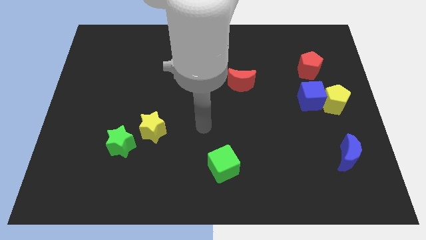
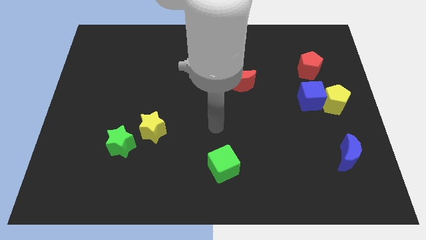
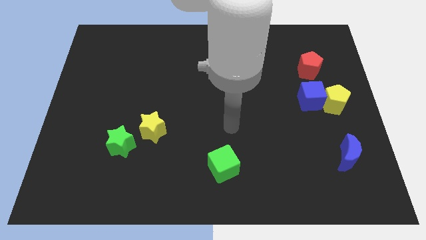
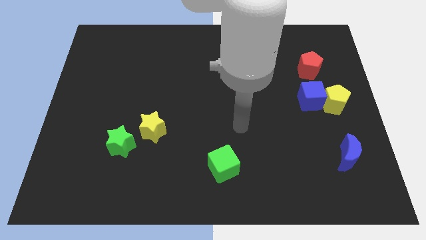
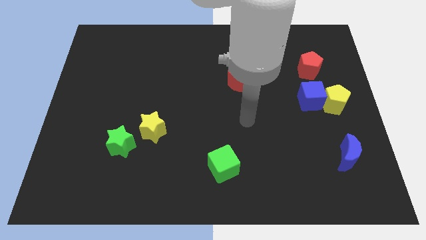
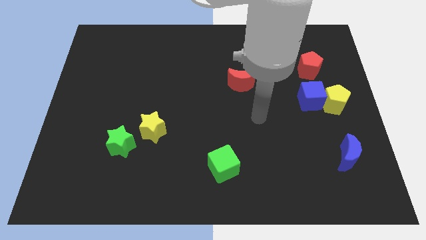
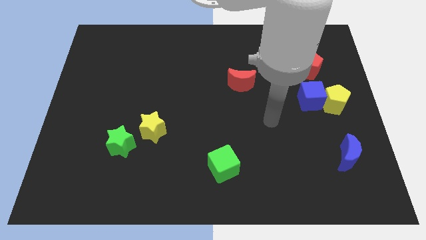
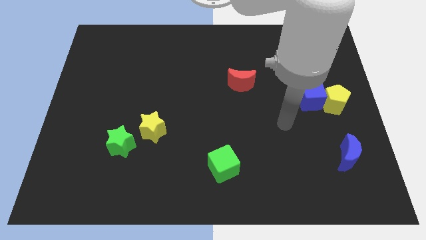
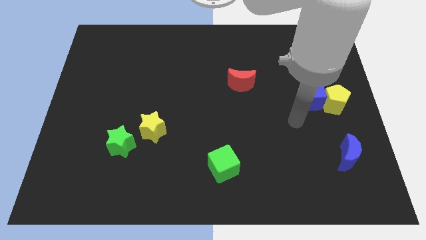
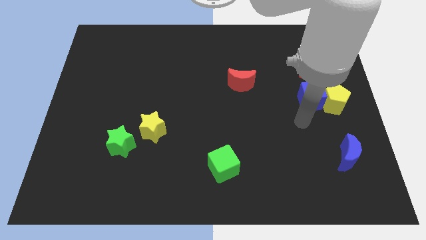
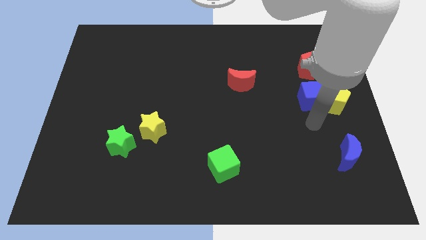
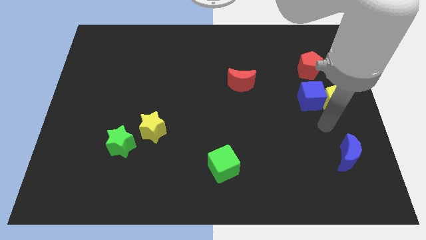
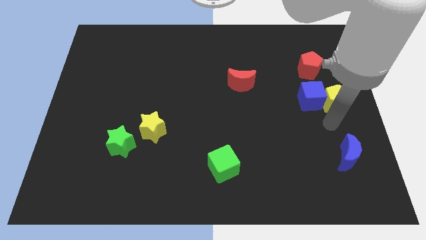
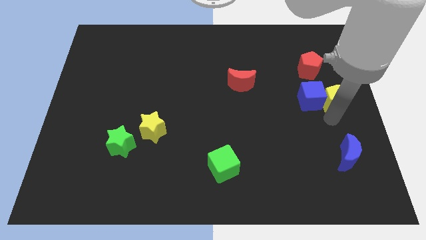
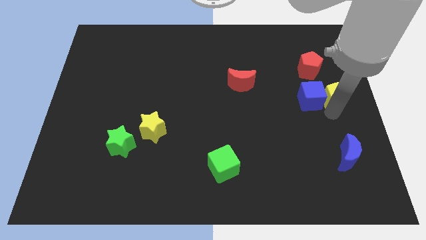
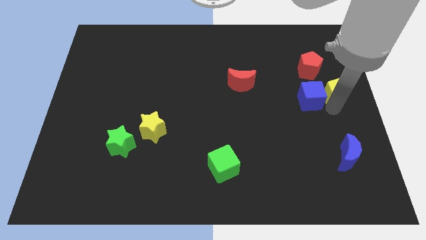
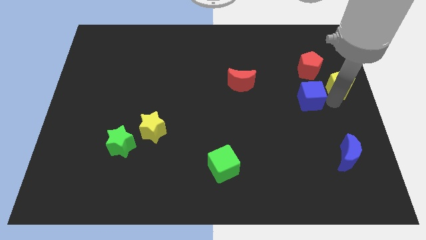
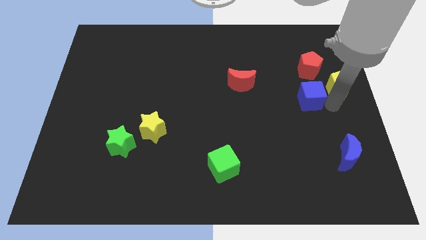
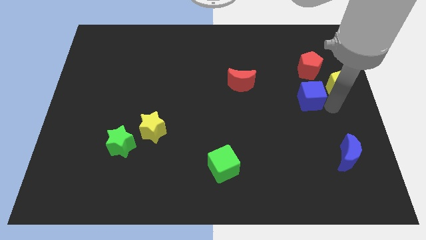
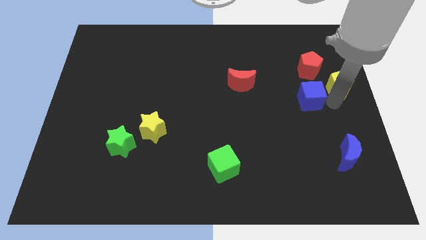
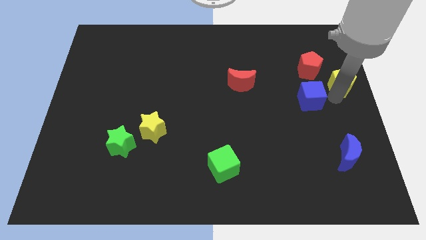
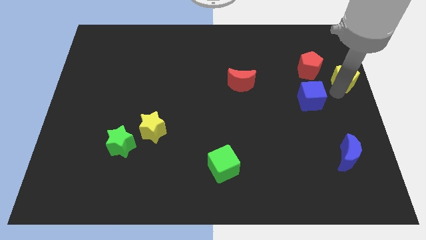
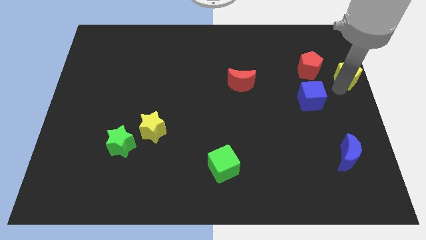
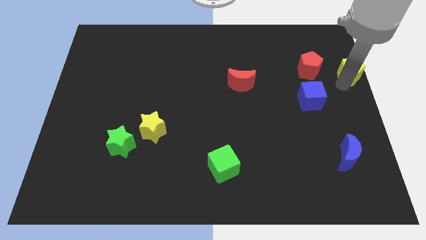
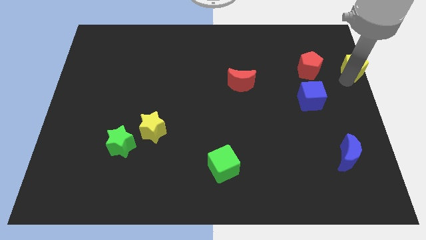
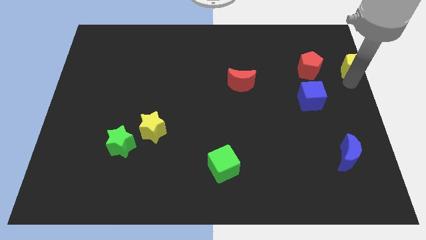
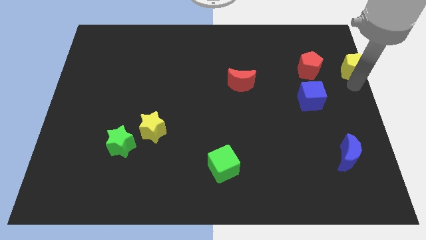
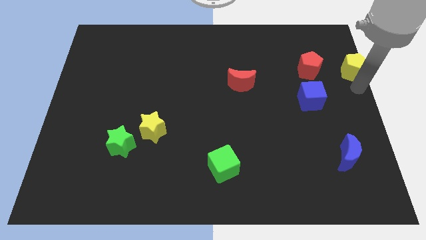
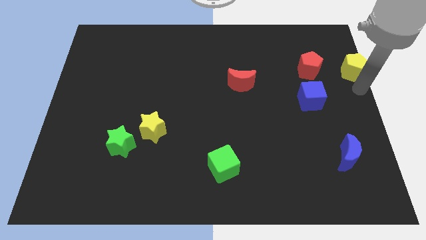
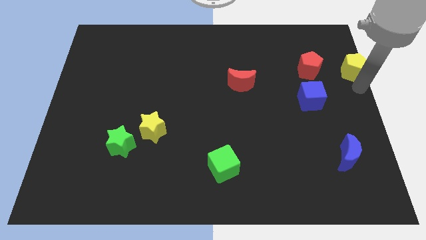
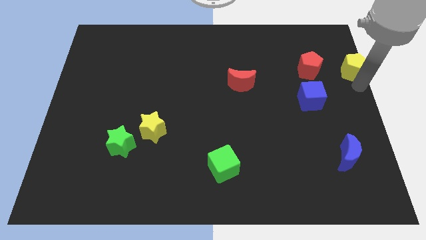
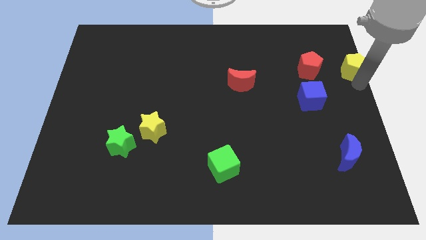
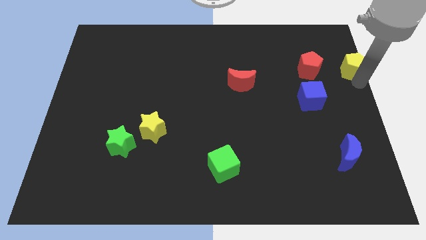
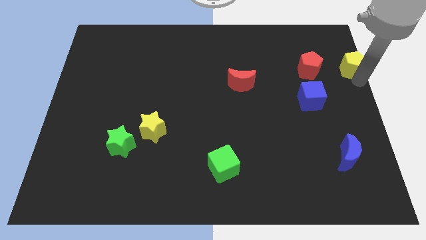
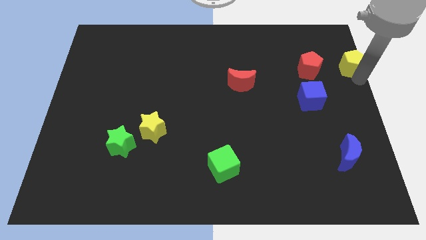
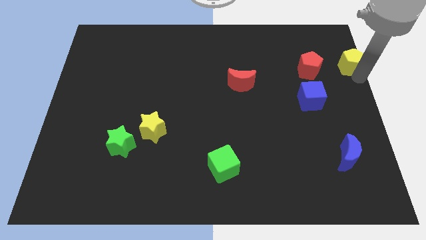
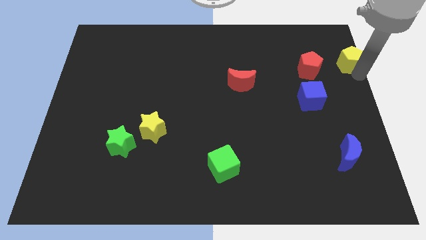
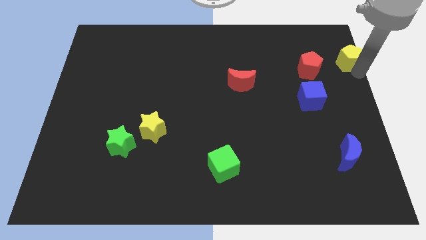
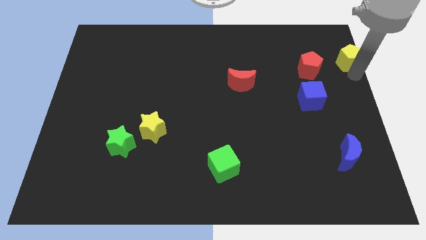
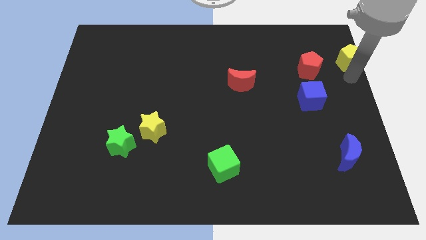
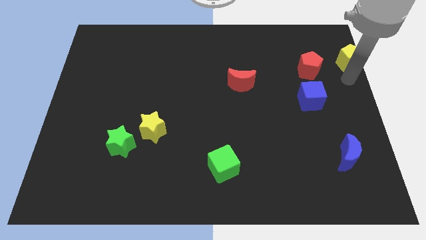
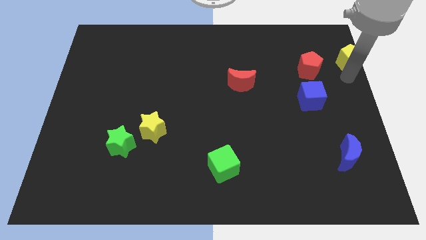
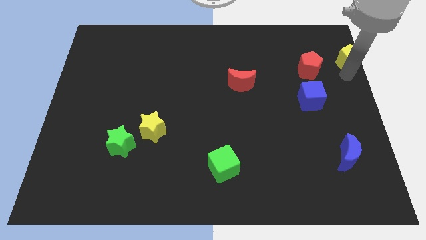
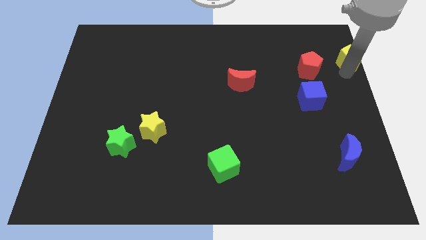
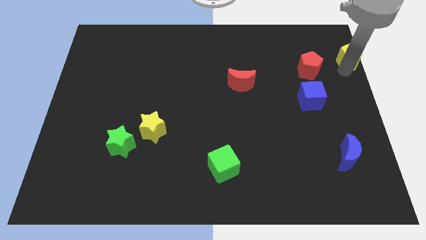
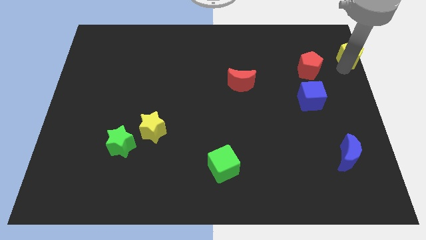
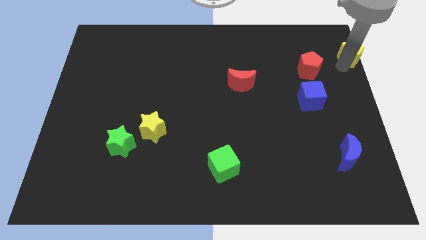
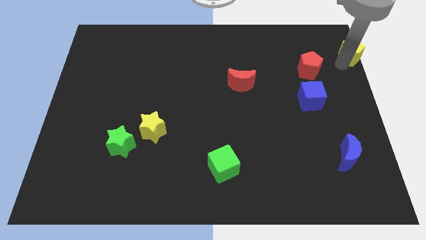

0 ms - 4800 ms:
put the yellow pentagon to the upper right corner

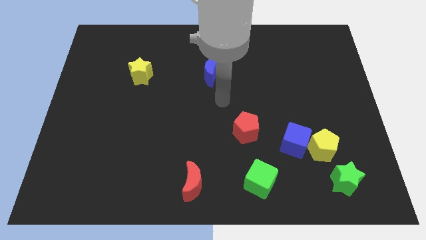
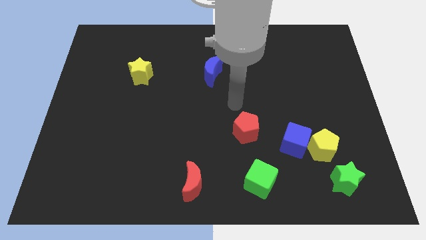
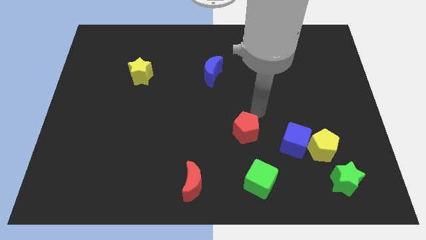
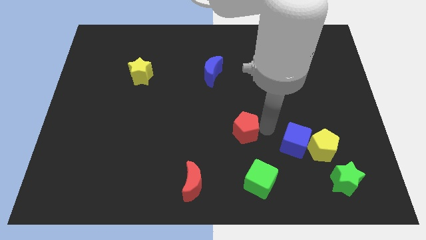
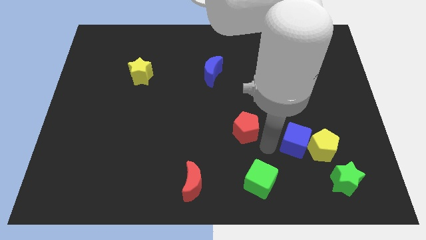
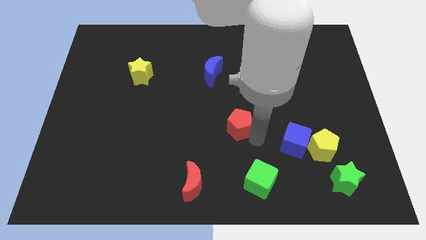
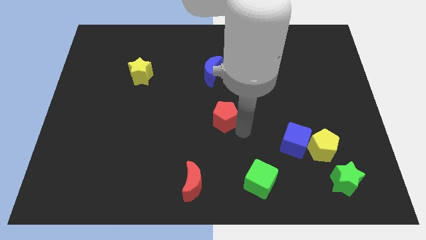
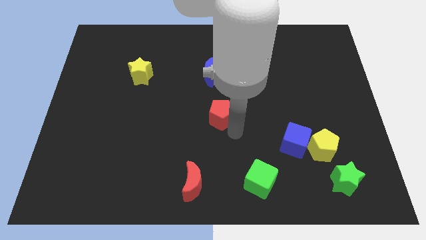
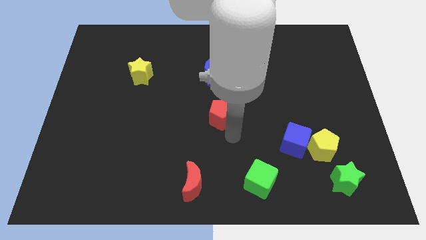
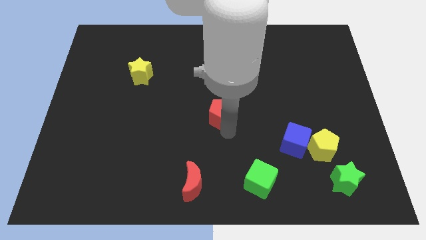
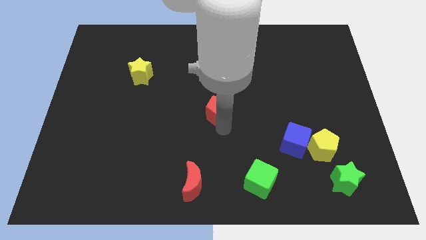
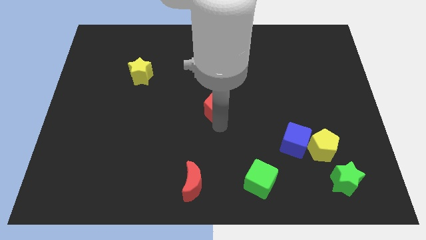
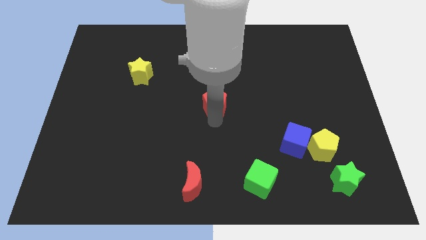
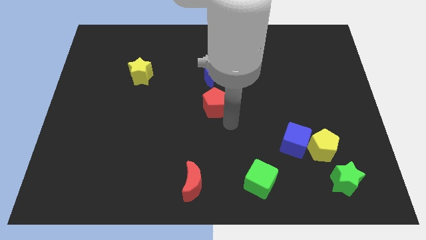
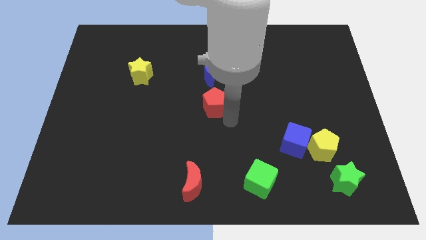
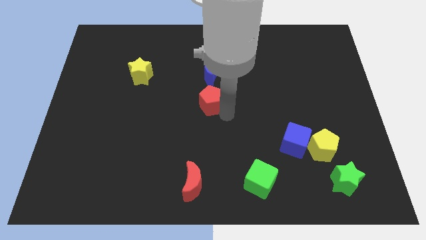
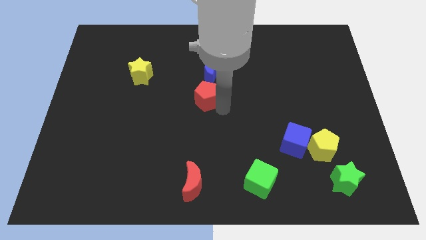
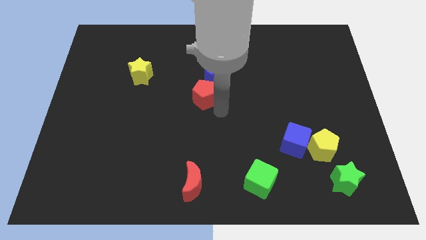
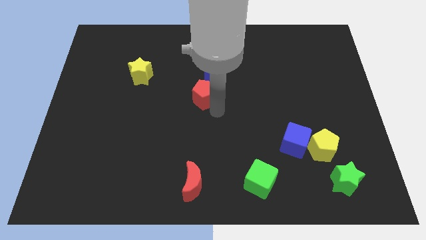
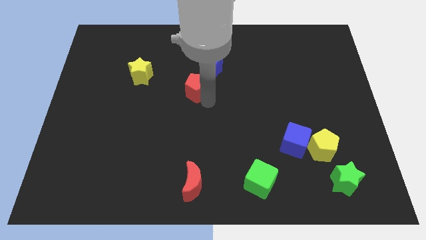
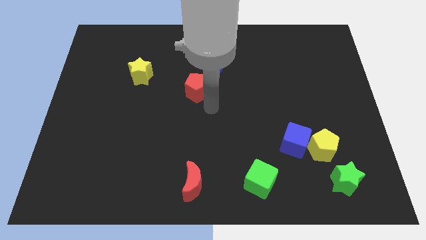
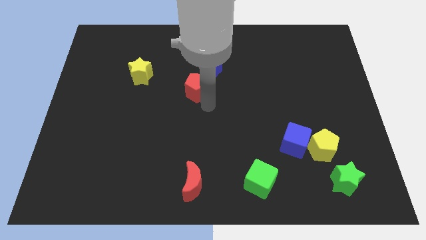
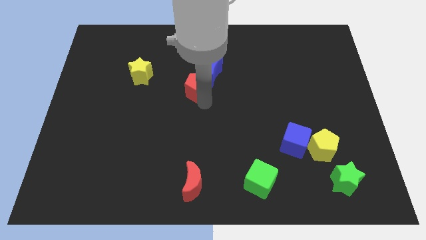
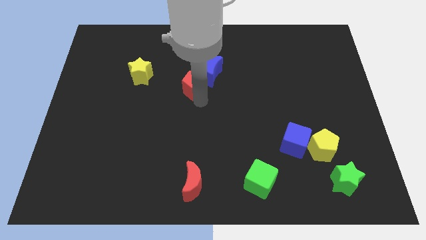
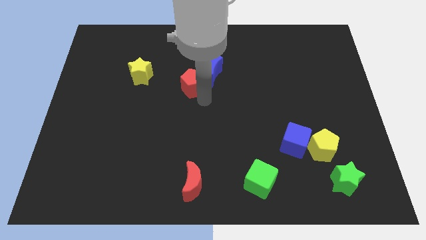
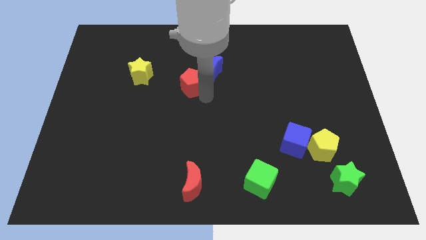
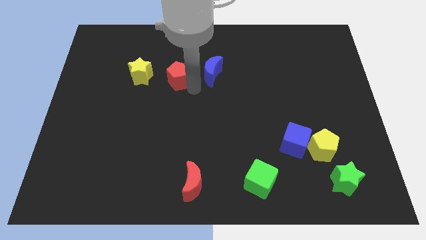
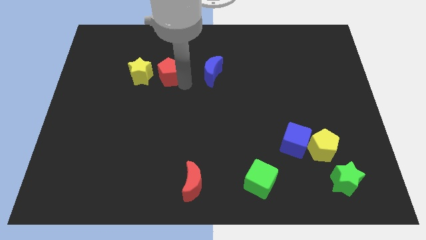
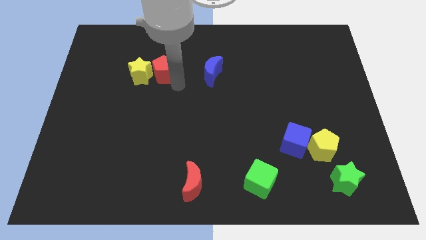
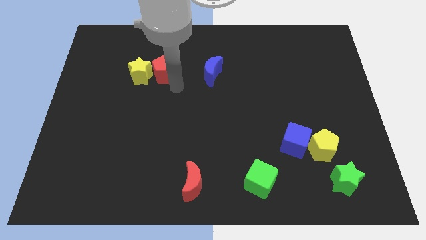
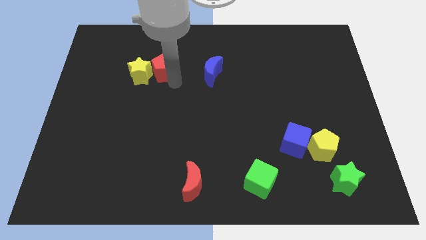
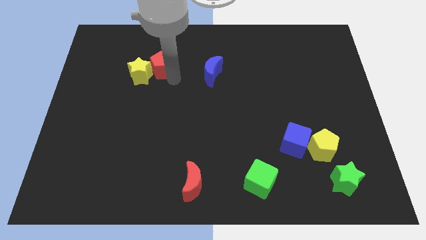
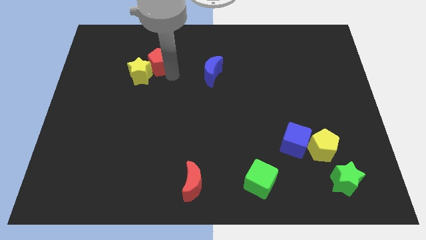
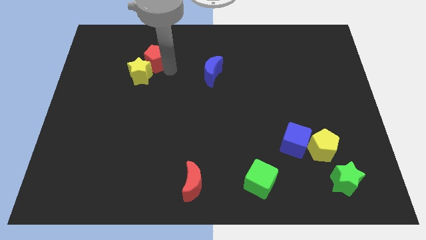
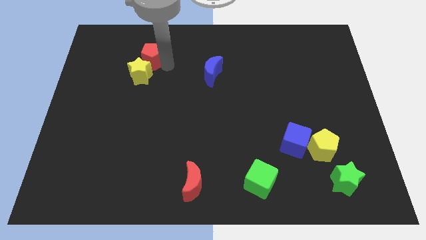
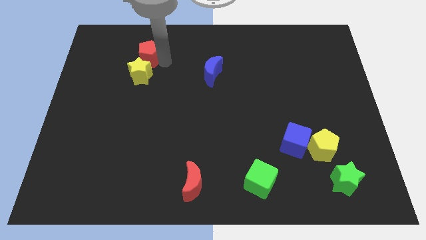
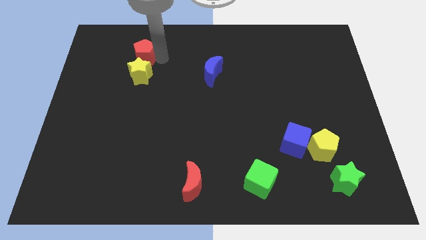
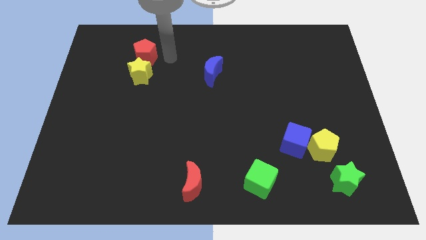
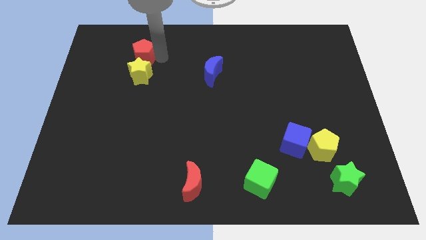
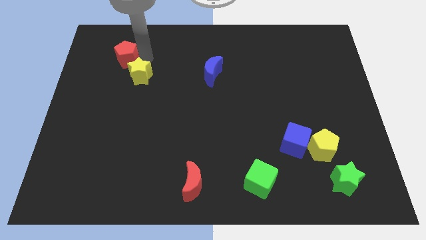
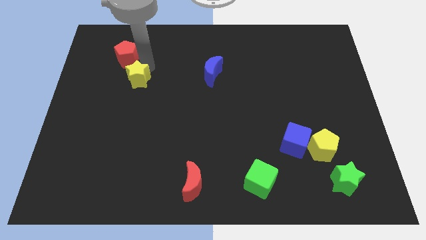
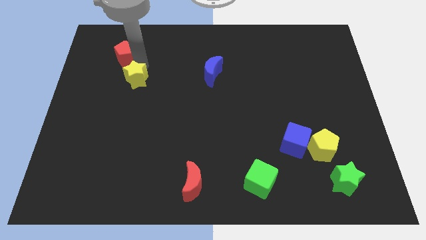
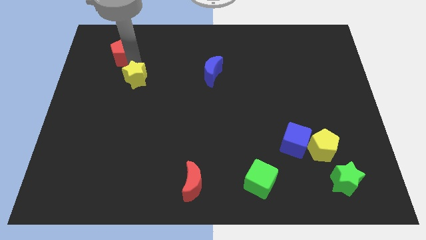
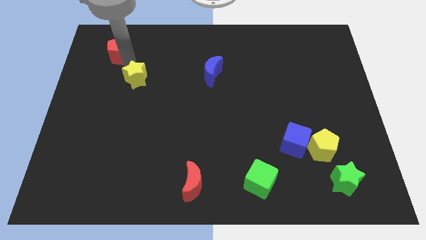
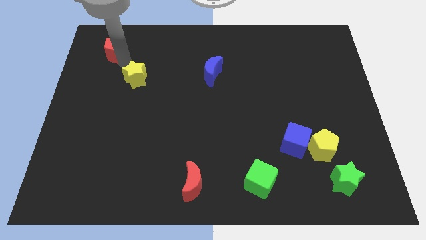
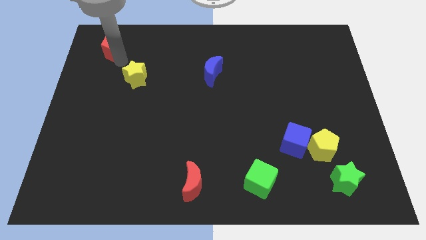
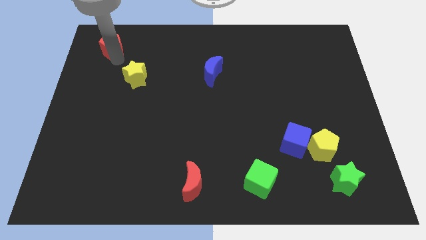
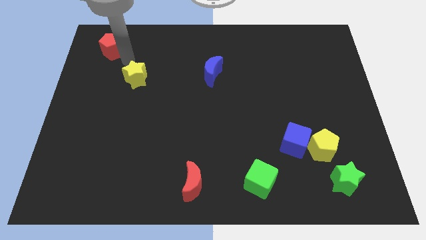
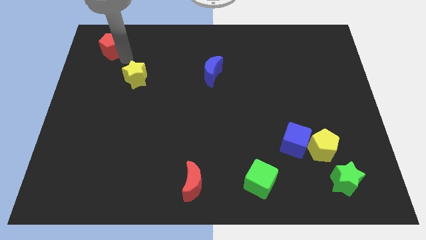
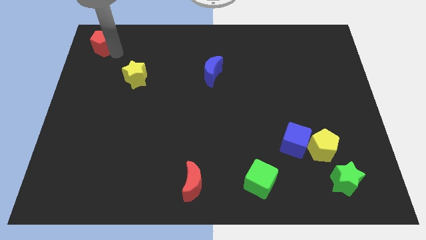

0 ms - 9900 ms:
move the red pentagon to the top left
